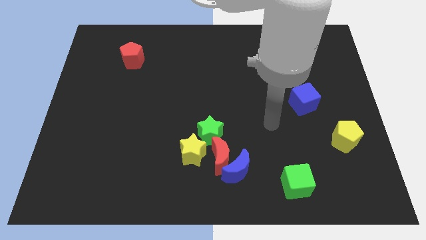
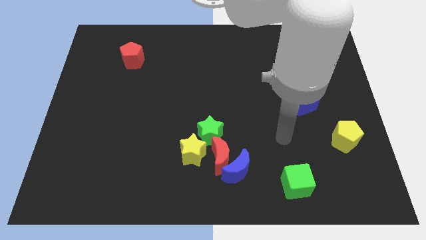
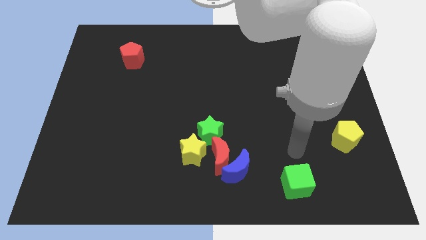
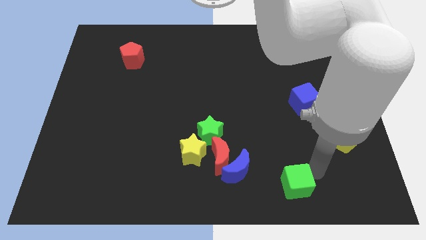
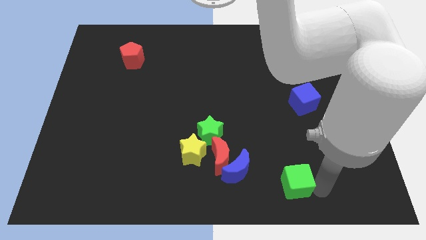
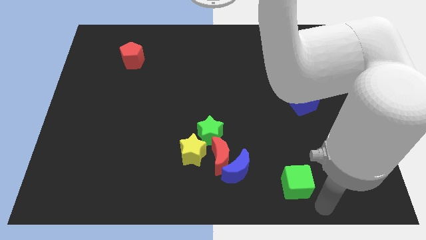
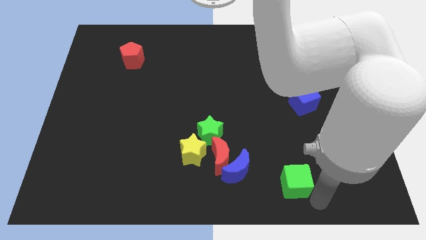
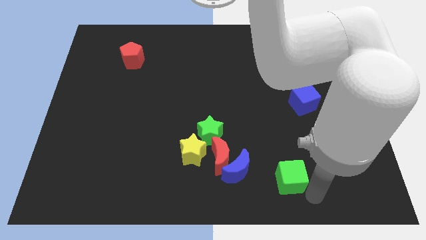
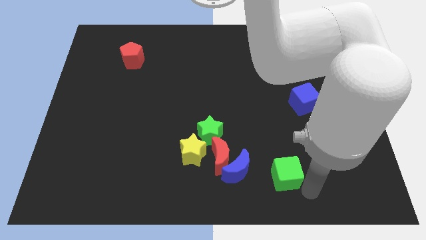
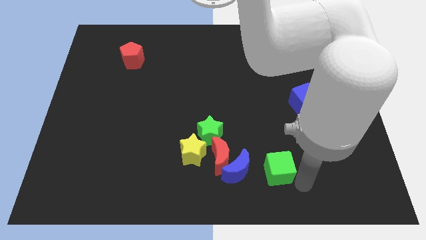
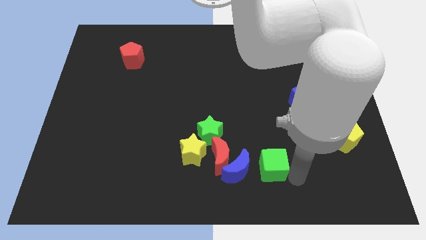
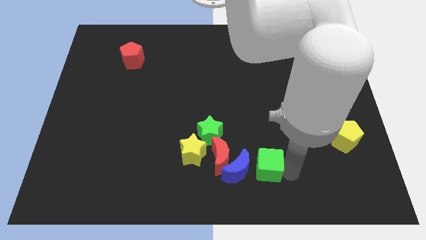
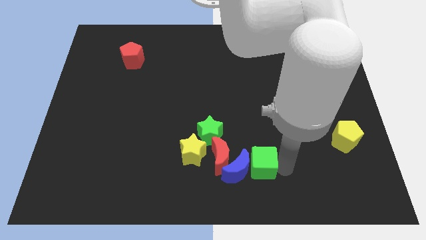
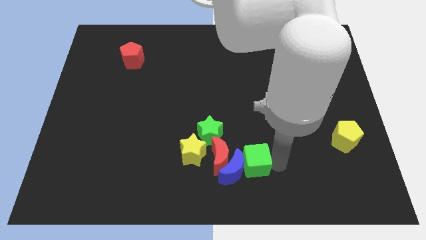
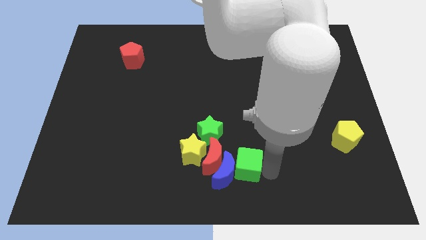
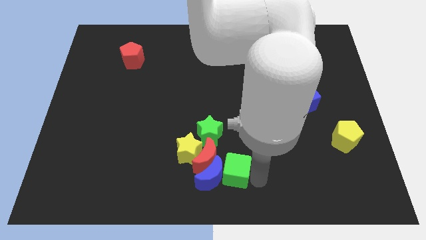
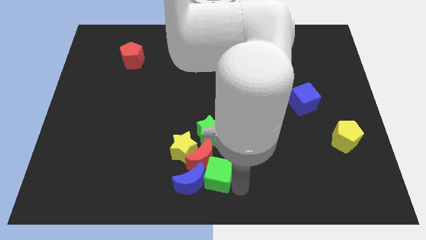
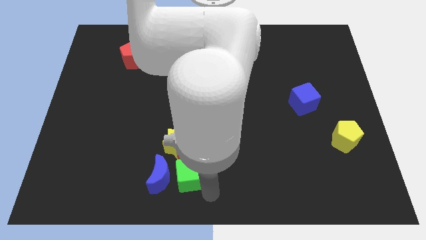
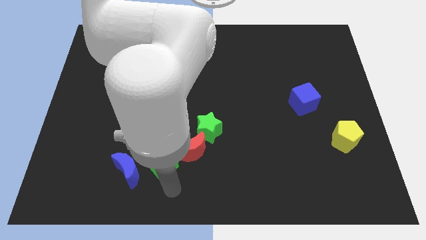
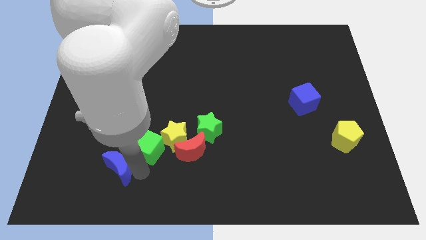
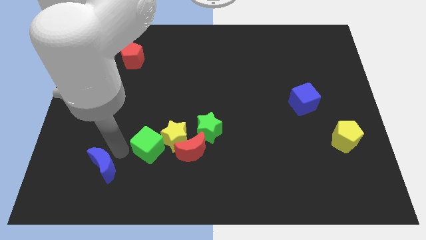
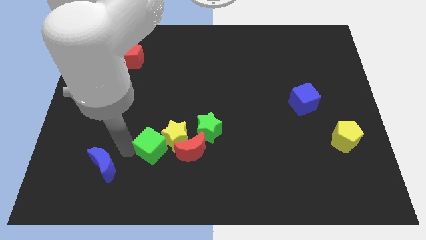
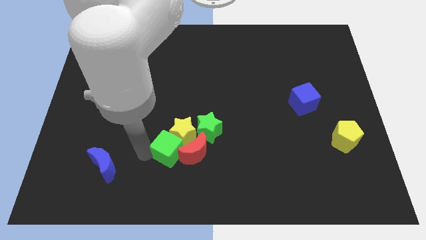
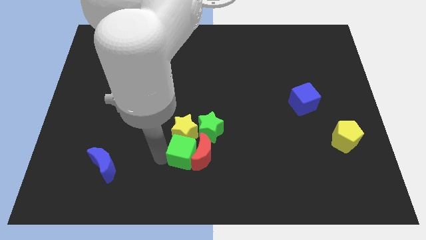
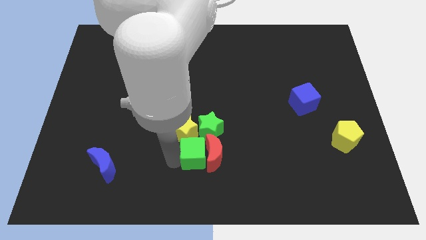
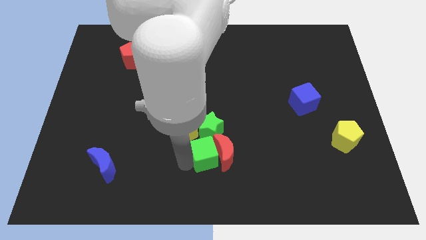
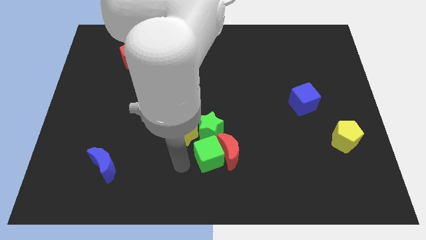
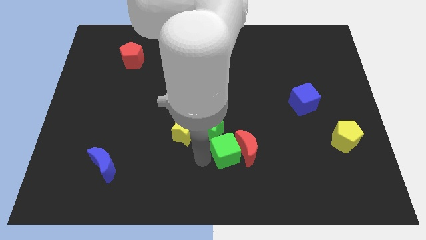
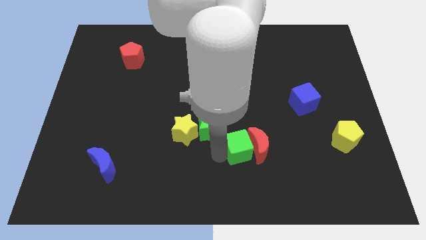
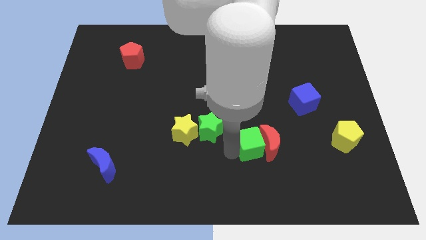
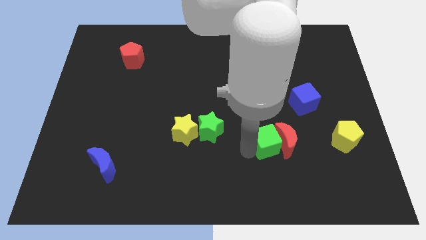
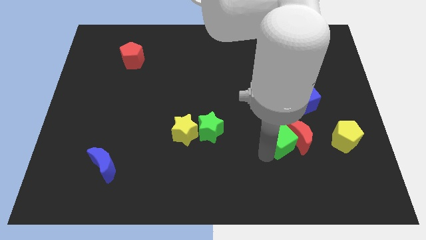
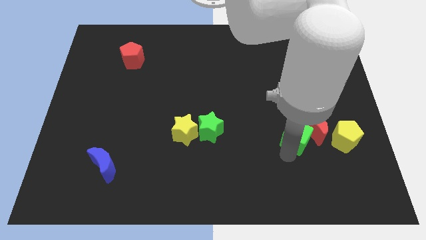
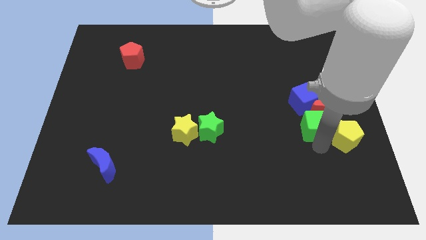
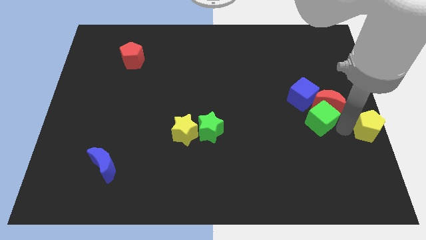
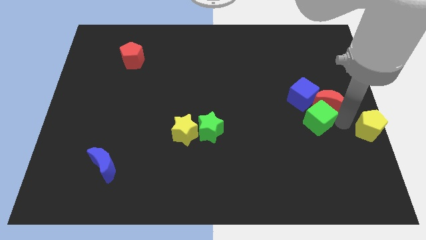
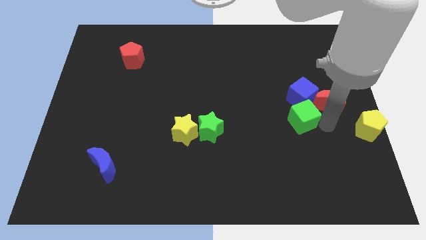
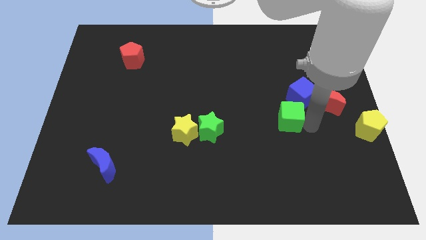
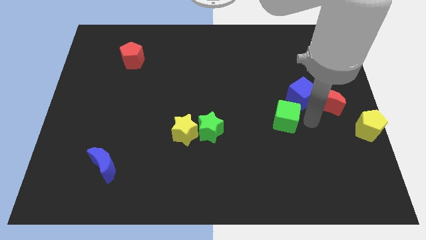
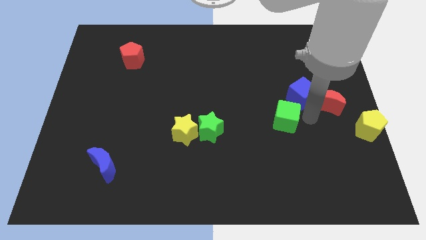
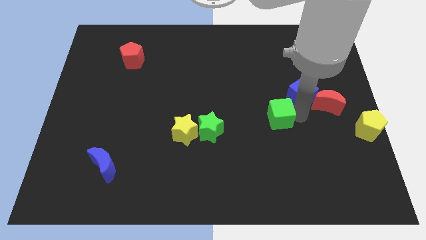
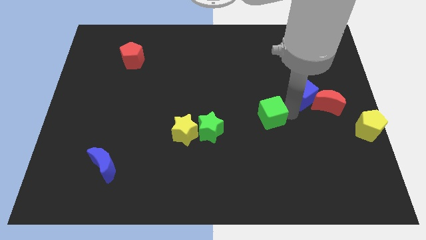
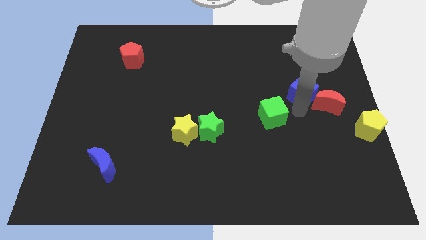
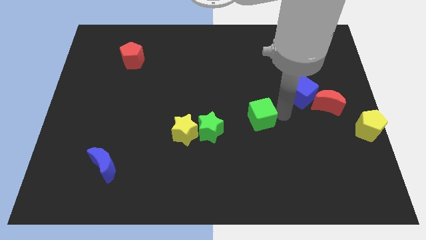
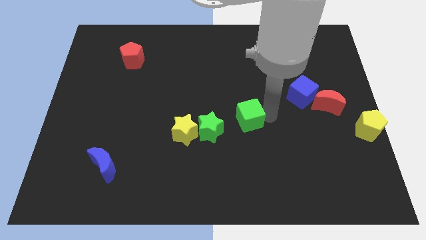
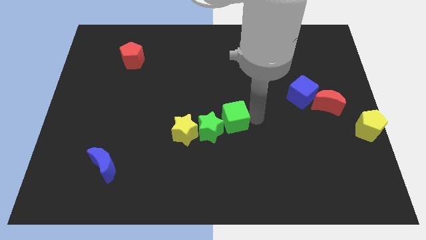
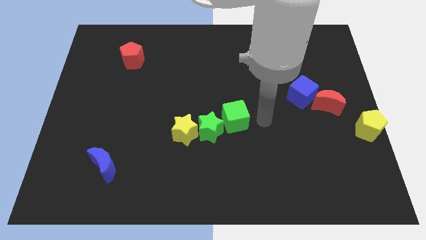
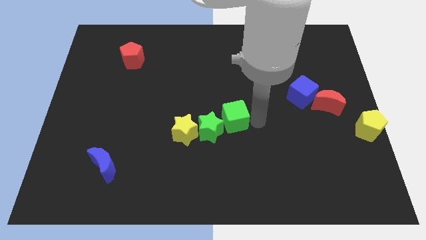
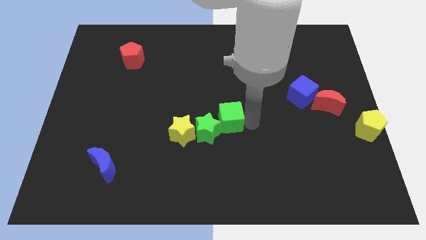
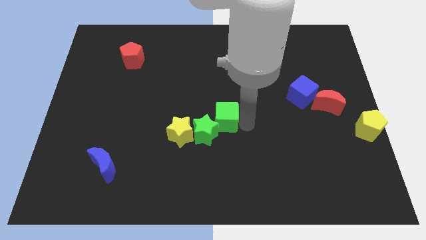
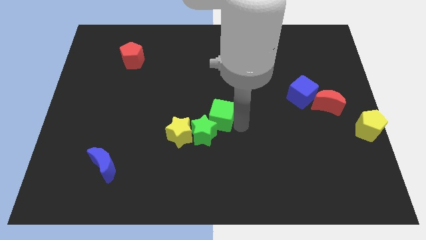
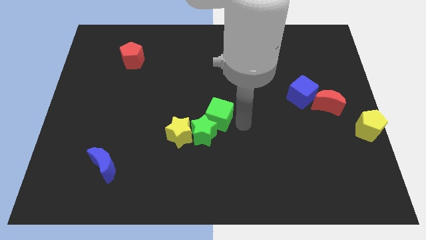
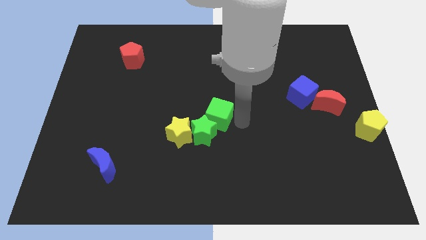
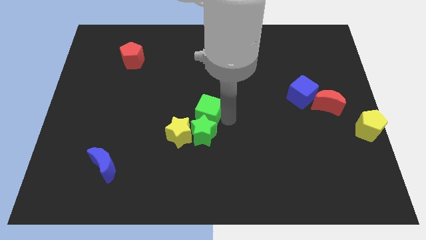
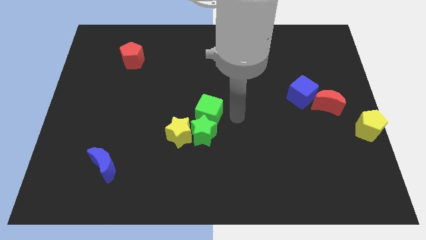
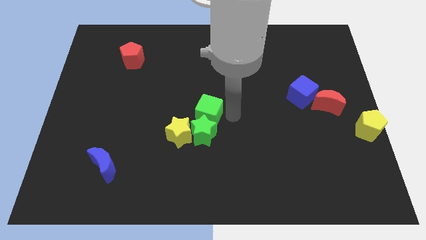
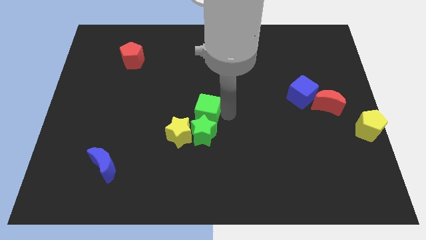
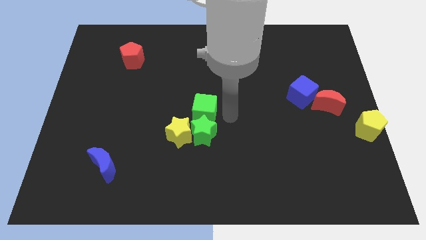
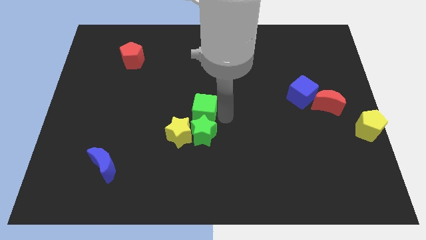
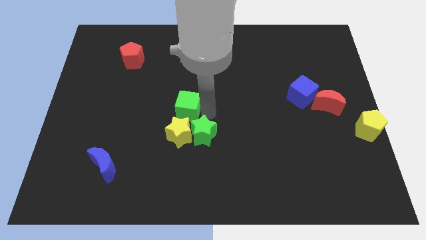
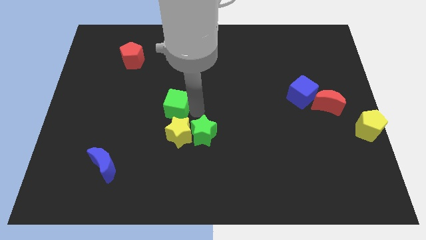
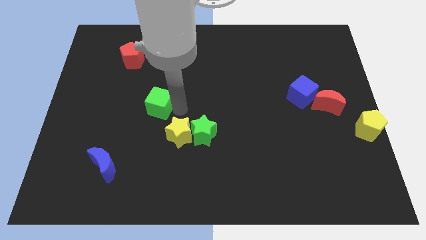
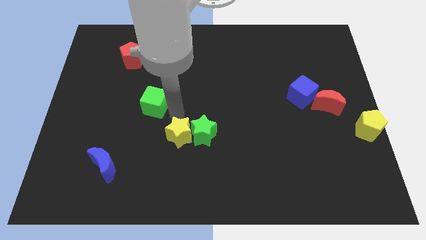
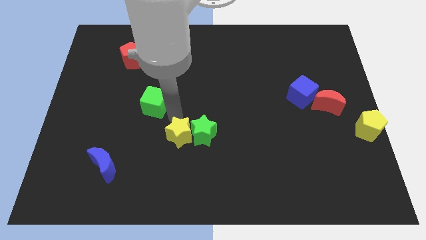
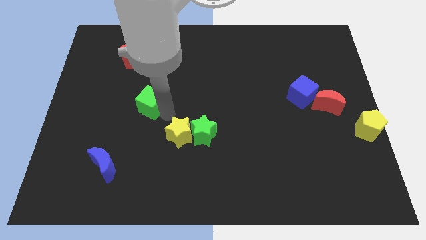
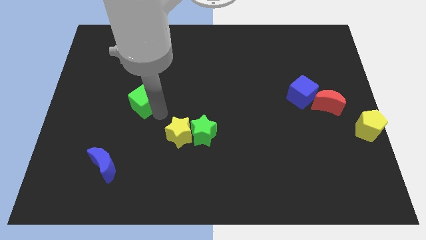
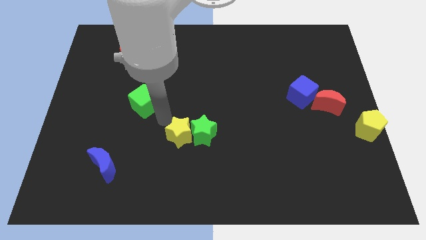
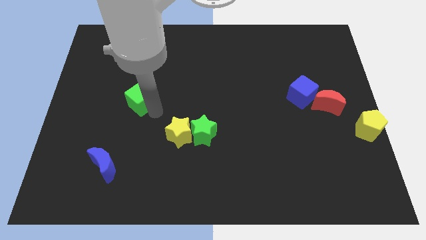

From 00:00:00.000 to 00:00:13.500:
slide the green cube below the red pentagon
